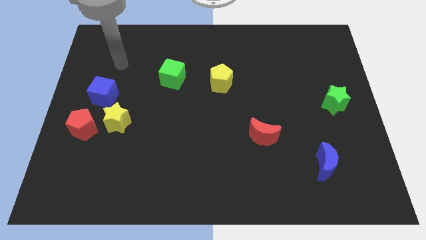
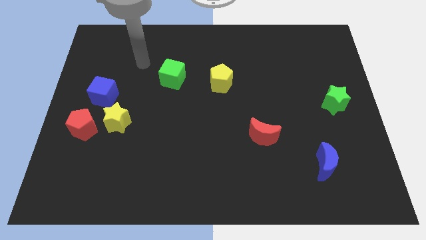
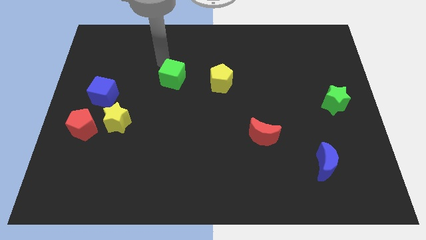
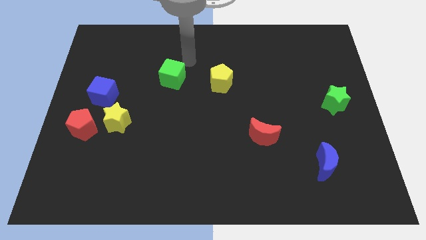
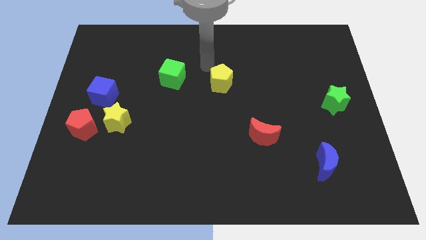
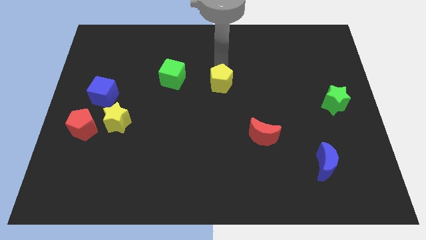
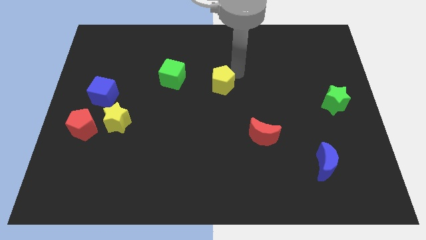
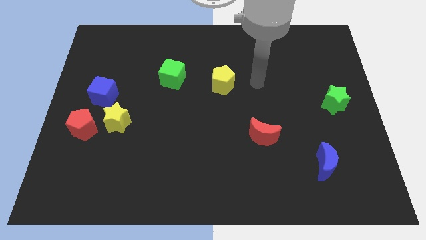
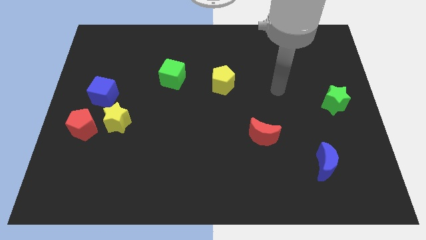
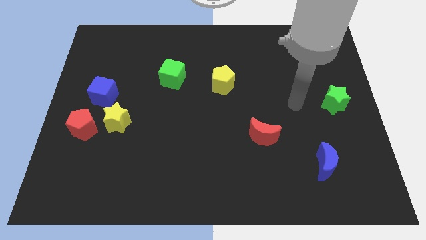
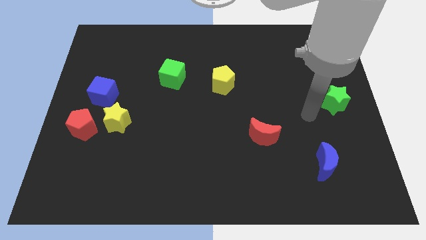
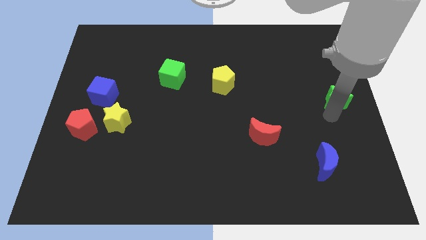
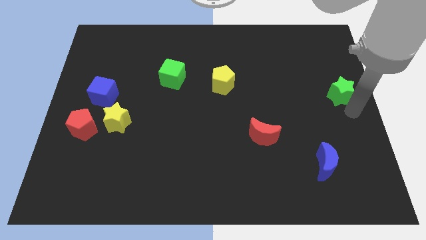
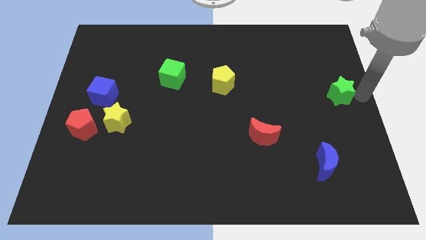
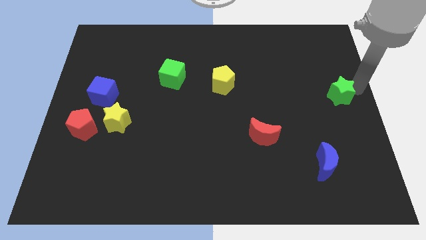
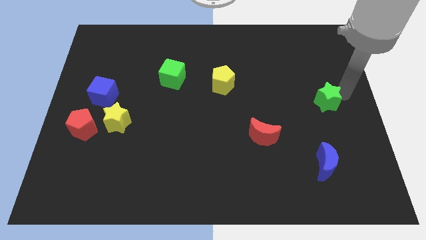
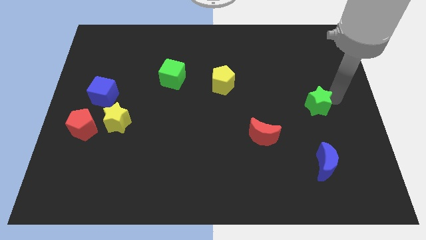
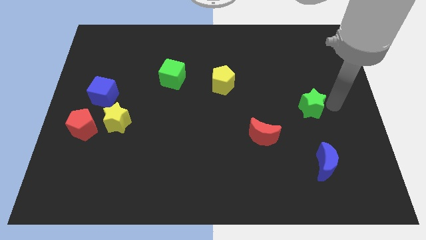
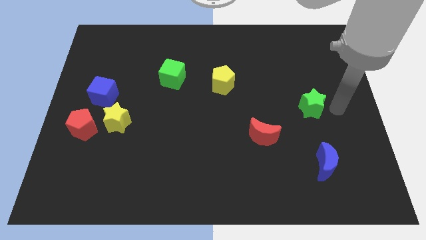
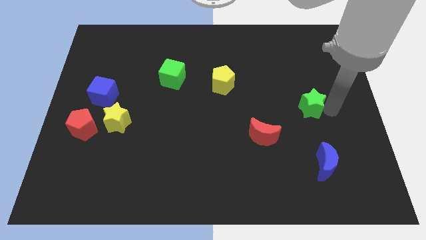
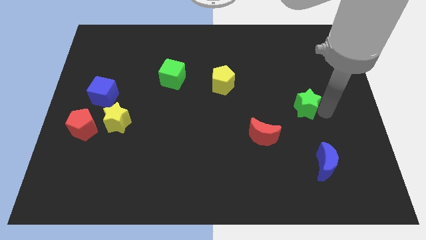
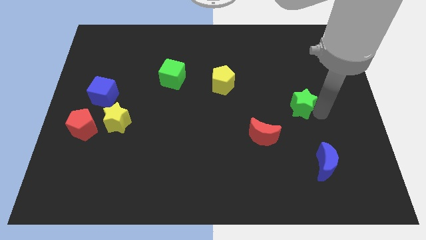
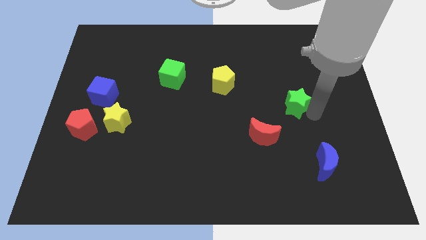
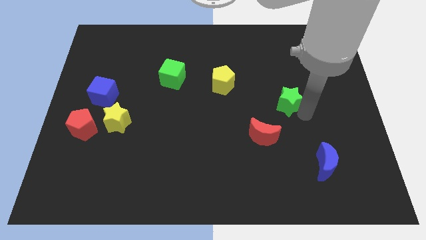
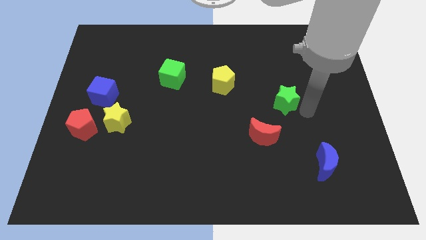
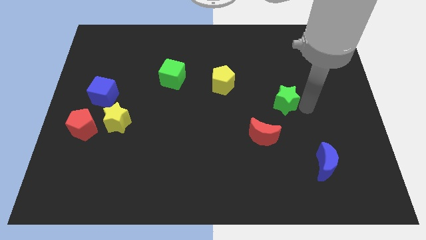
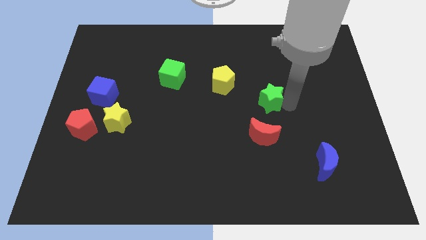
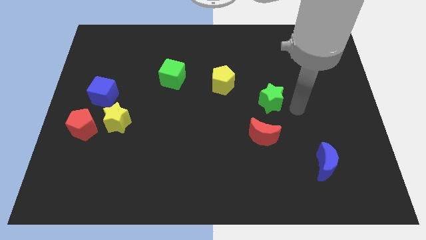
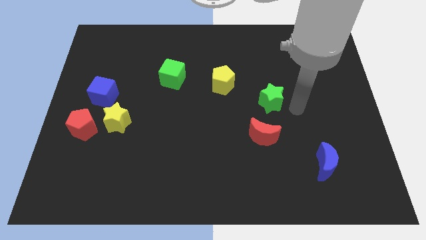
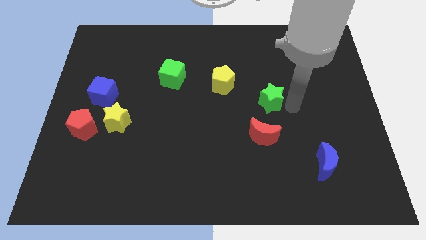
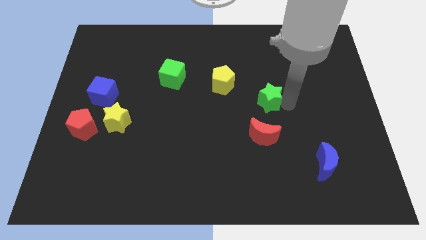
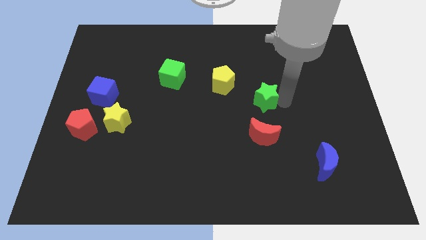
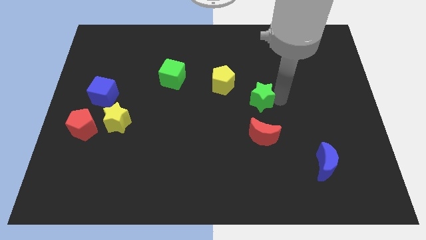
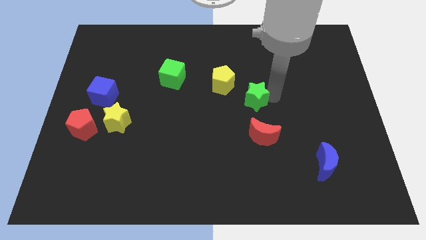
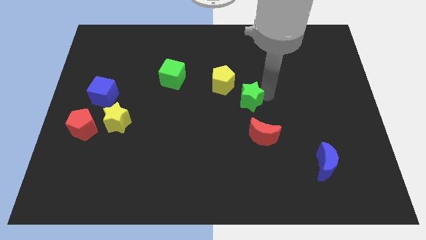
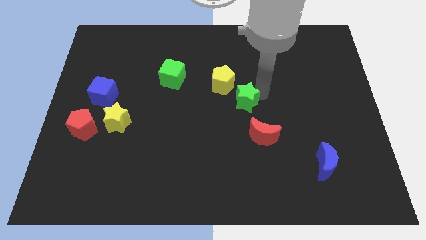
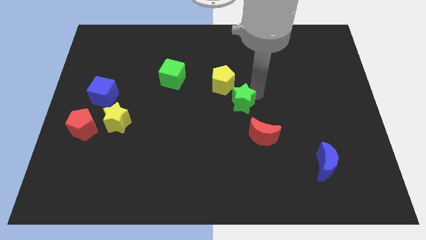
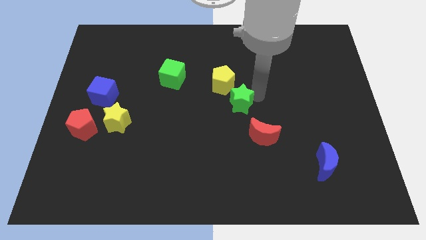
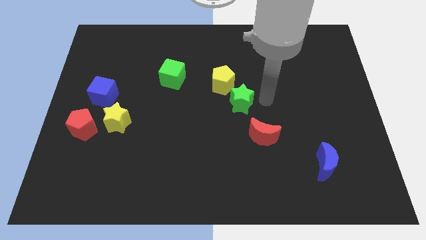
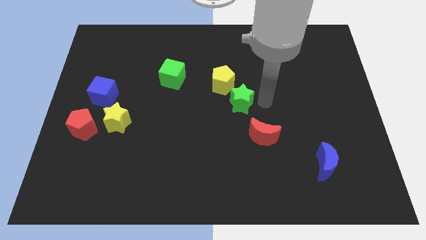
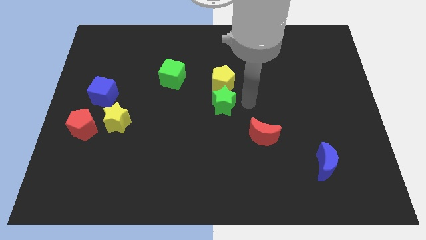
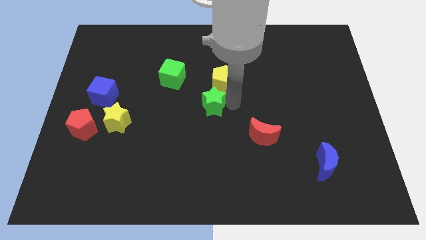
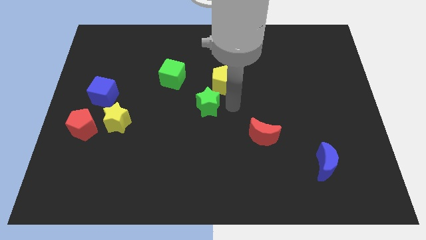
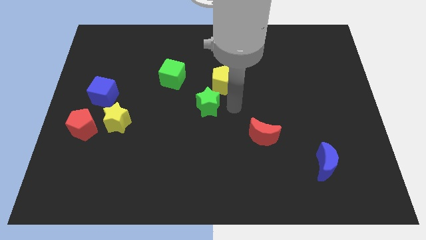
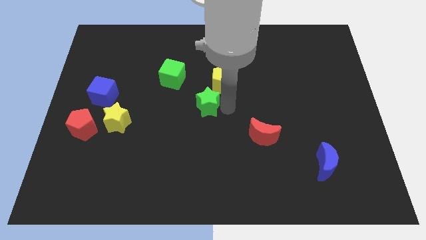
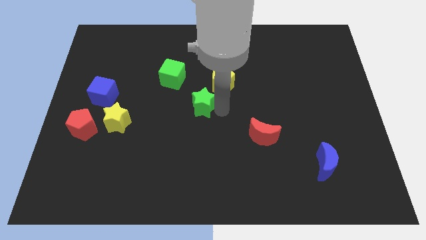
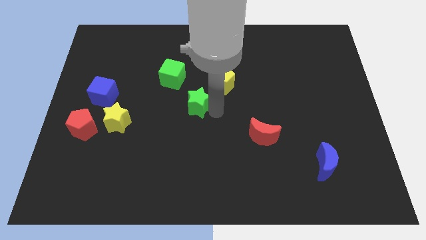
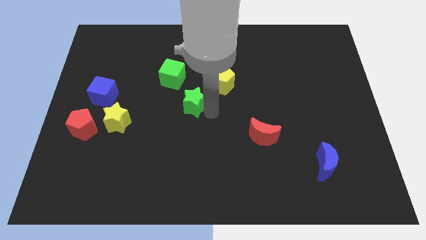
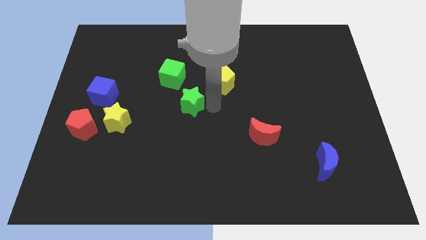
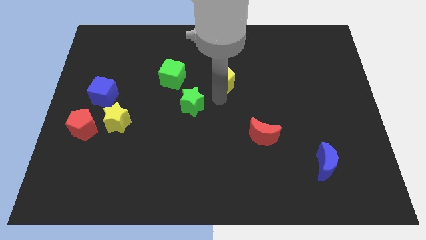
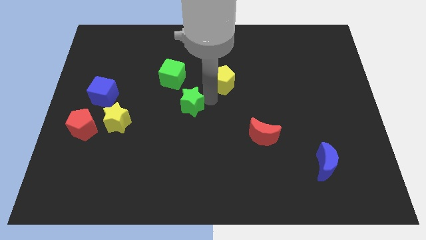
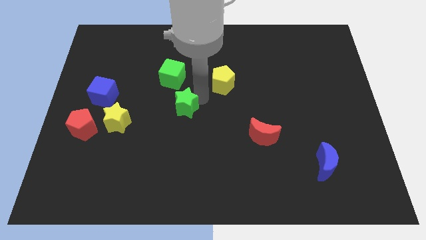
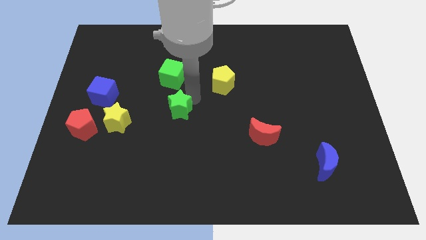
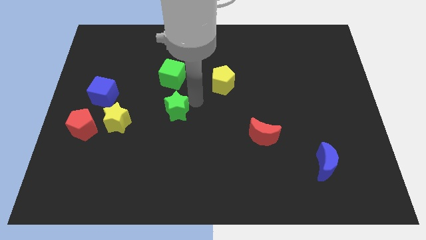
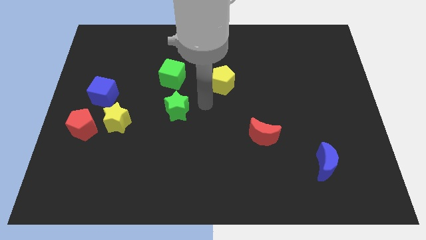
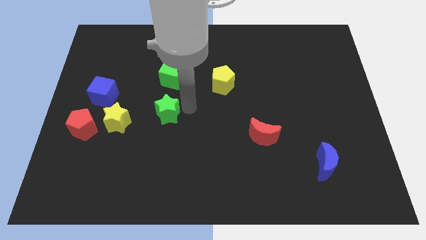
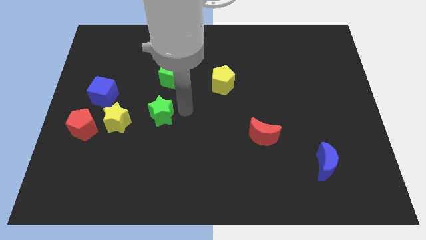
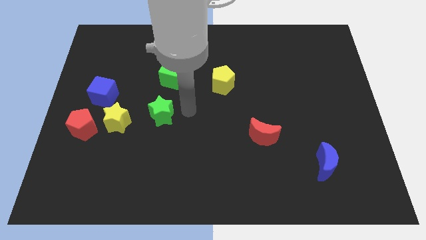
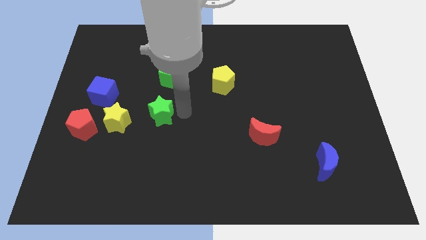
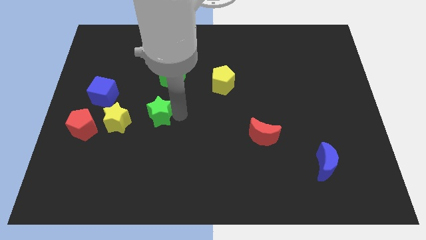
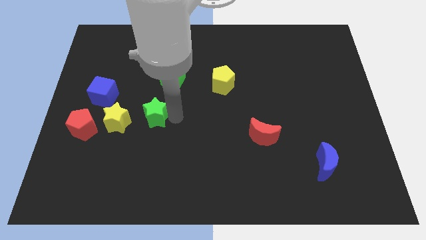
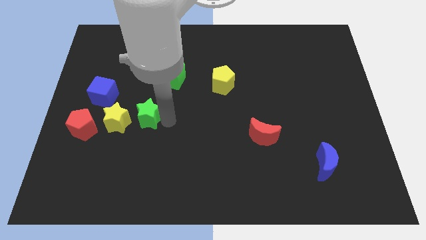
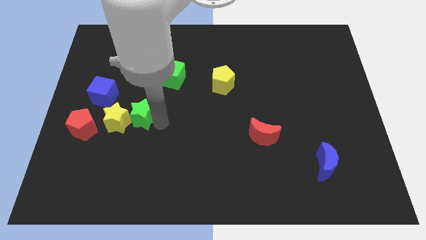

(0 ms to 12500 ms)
put the green star to the yellow star

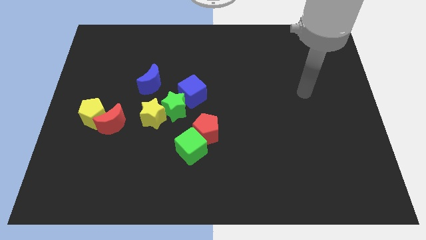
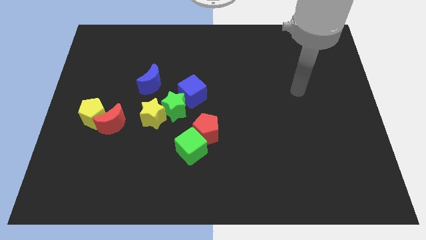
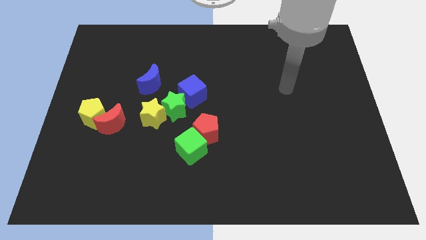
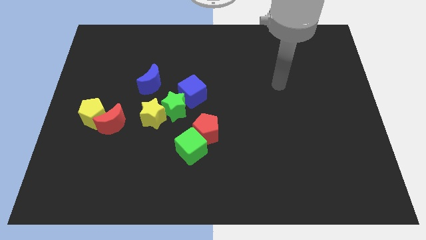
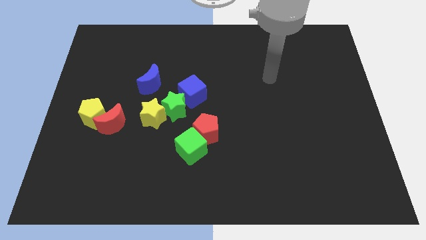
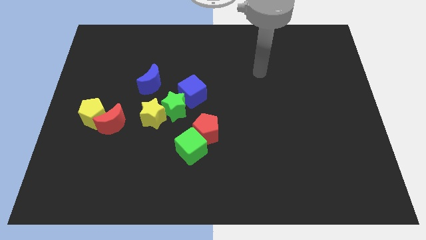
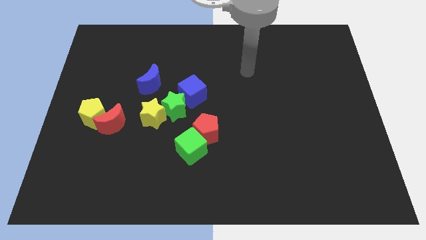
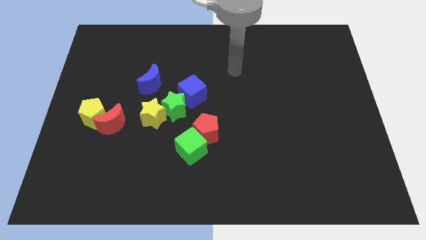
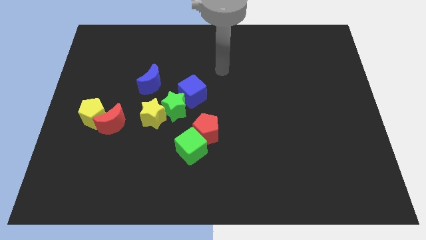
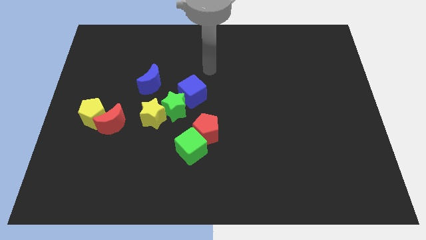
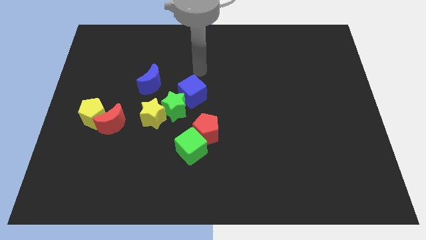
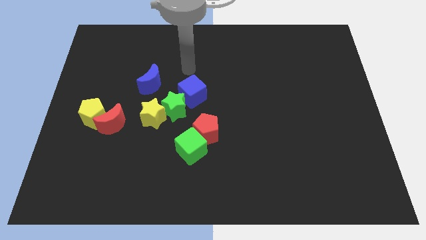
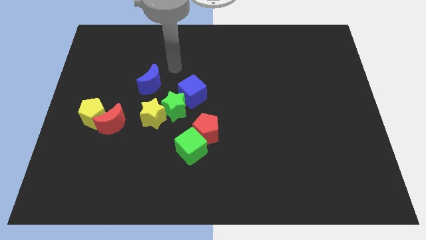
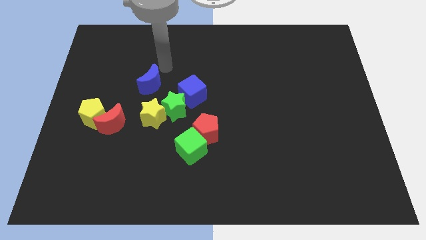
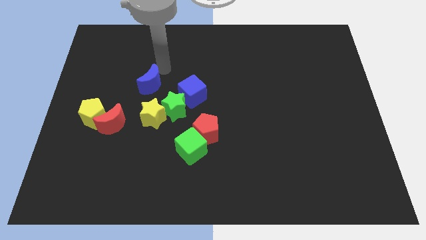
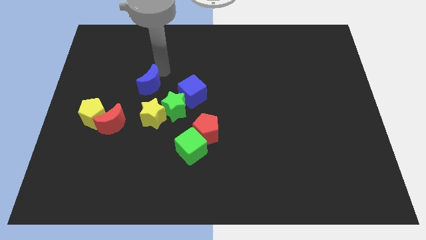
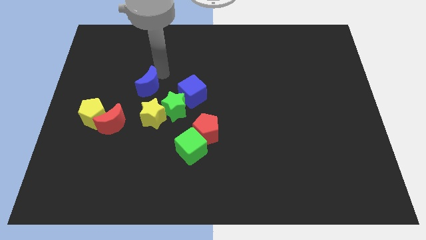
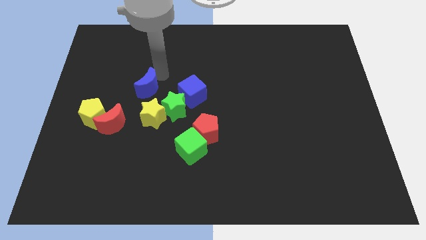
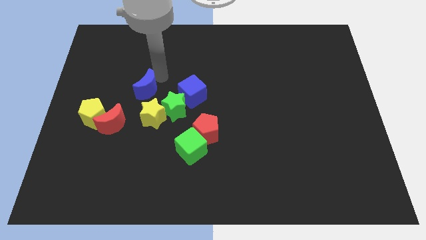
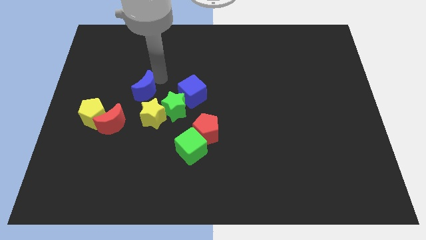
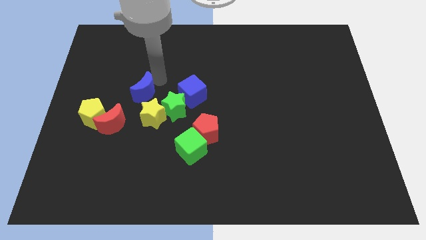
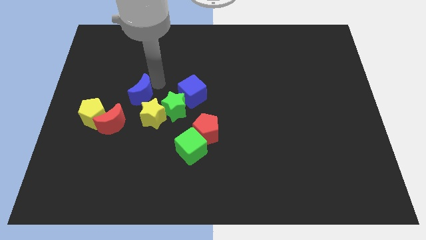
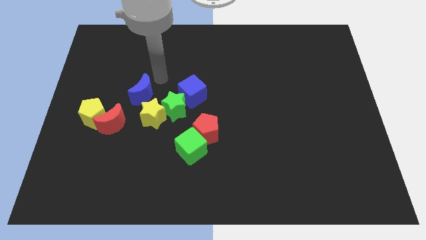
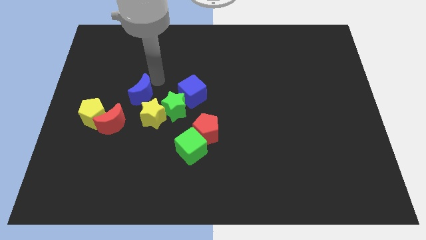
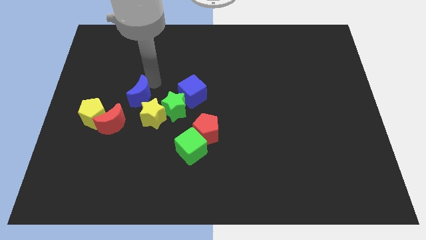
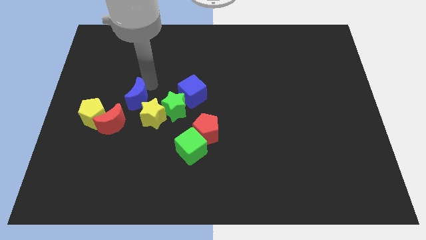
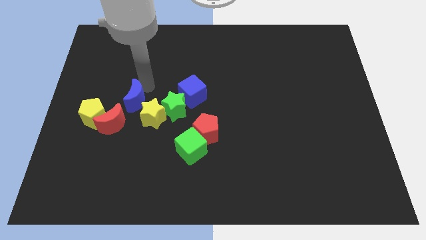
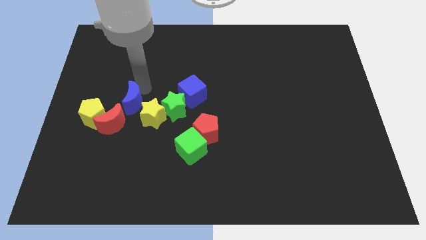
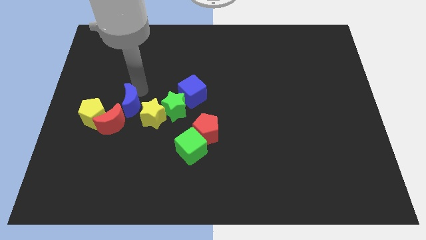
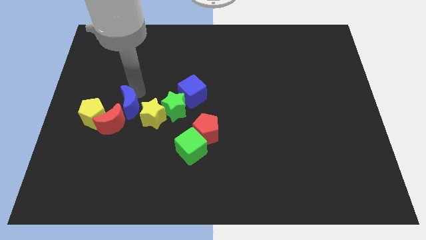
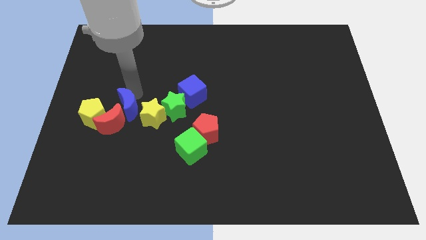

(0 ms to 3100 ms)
move the blue moon close to the red moon
